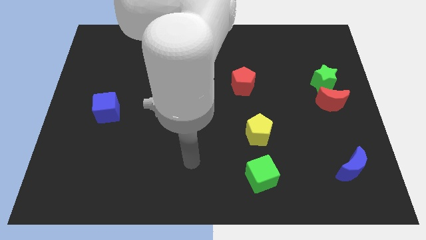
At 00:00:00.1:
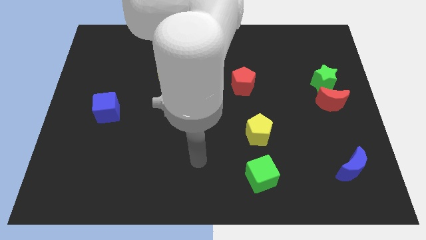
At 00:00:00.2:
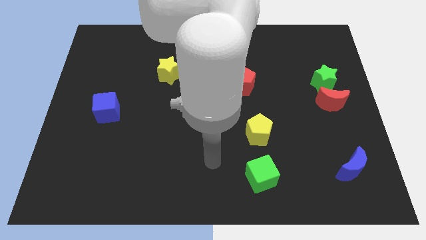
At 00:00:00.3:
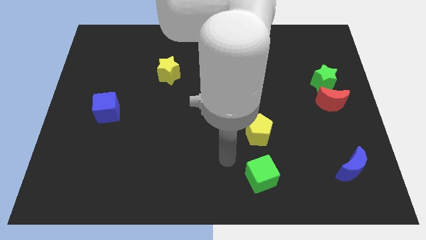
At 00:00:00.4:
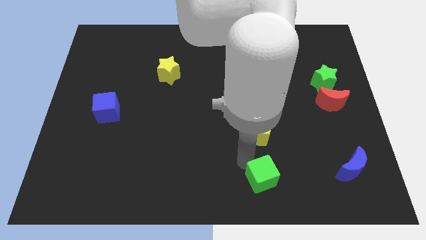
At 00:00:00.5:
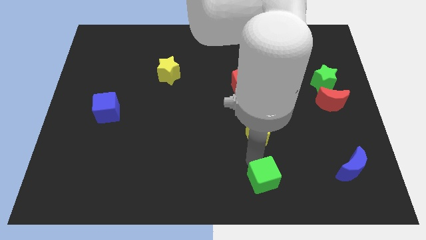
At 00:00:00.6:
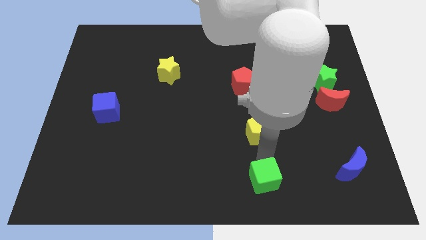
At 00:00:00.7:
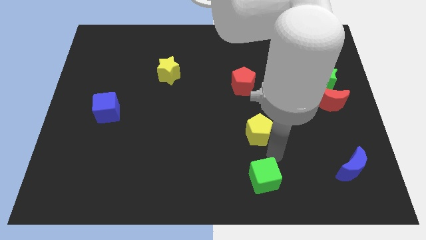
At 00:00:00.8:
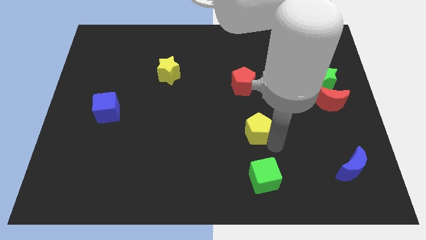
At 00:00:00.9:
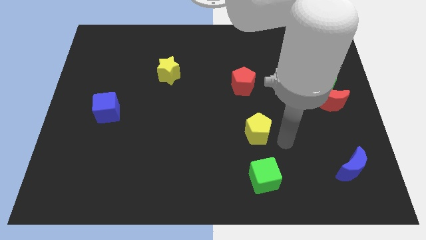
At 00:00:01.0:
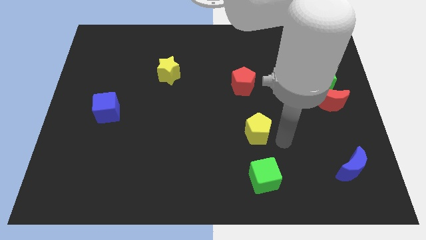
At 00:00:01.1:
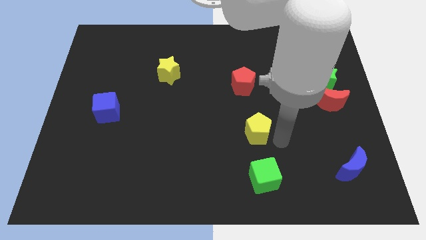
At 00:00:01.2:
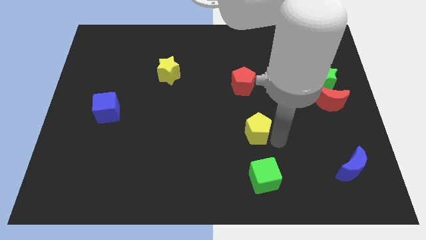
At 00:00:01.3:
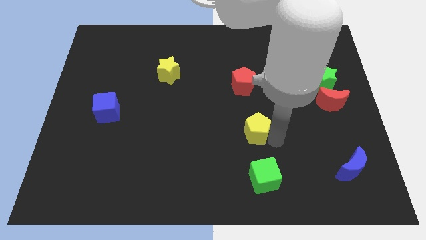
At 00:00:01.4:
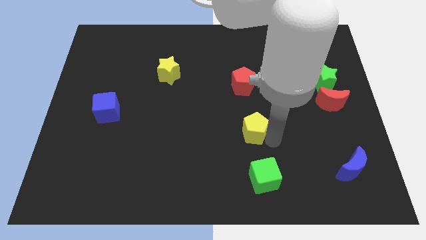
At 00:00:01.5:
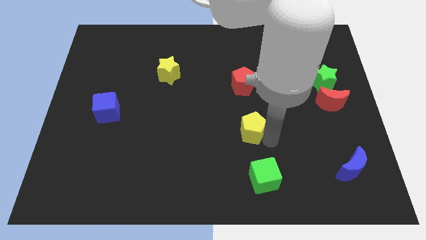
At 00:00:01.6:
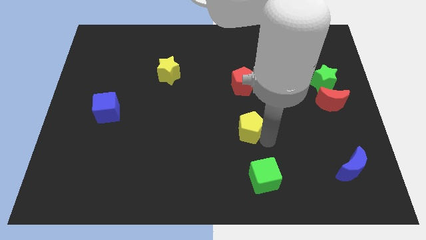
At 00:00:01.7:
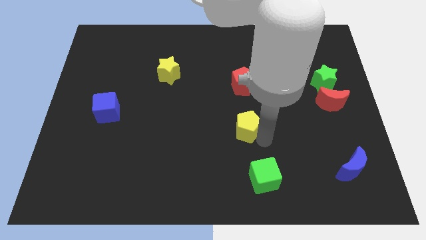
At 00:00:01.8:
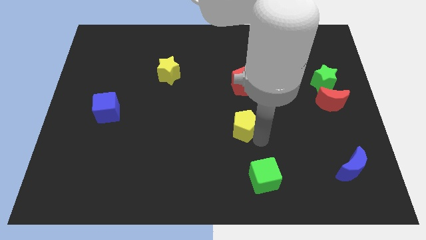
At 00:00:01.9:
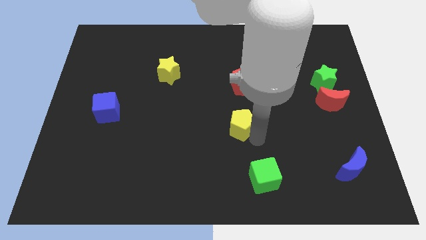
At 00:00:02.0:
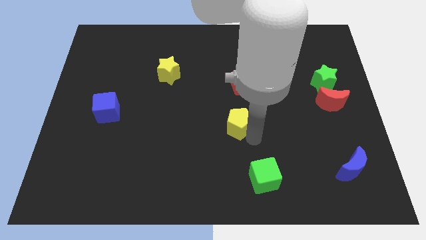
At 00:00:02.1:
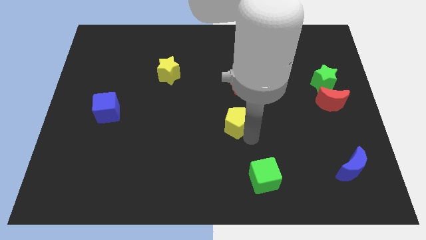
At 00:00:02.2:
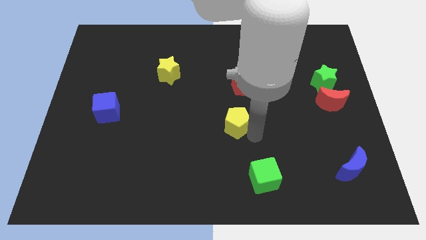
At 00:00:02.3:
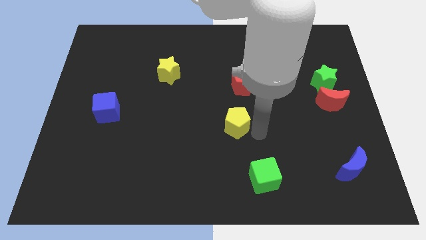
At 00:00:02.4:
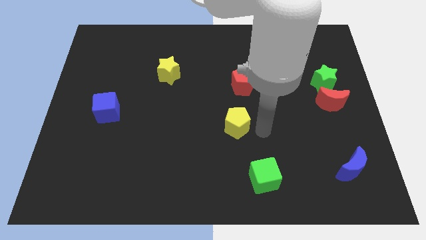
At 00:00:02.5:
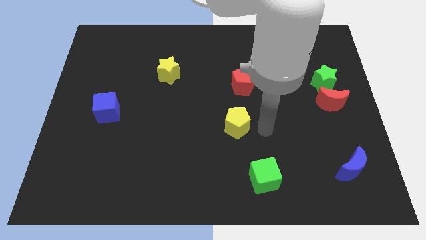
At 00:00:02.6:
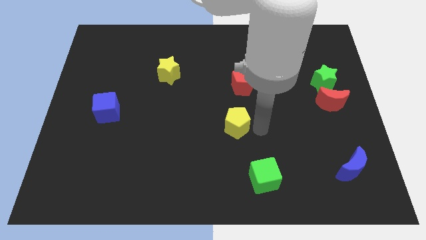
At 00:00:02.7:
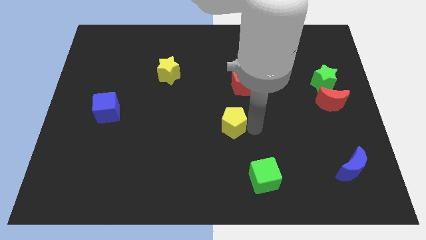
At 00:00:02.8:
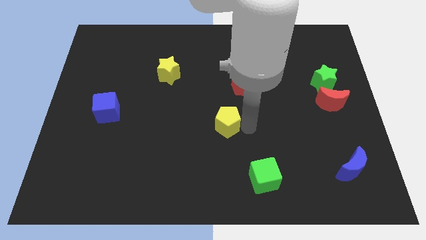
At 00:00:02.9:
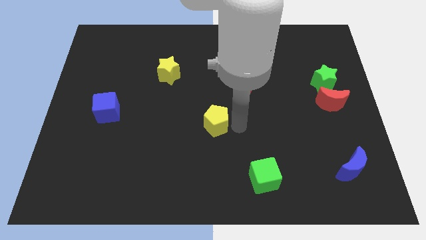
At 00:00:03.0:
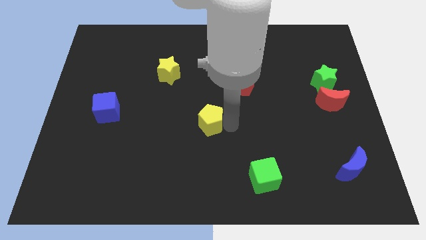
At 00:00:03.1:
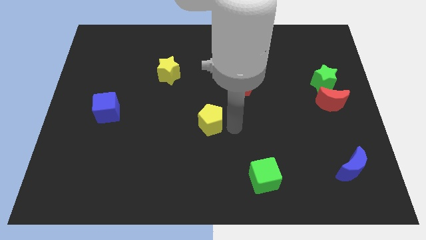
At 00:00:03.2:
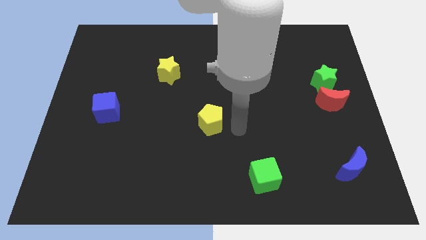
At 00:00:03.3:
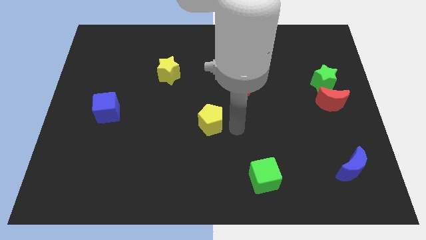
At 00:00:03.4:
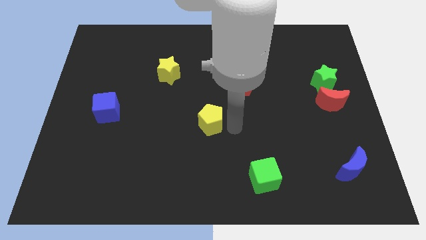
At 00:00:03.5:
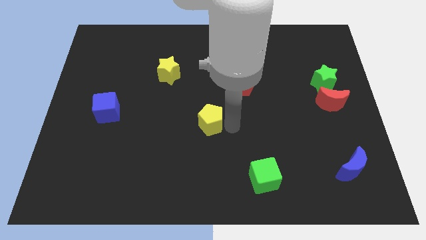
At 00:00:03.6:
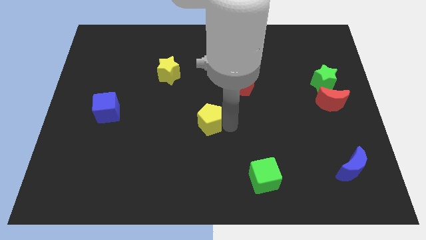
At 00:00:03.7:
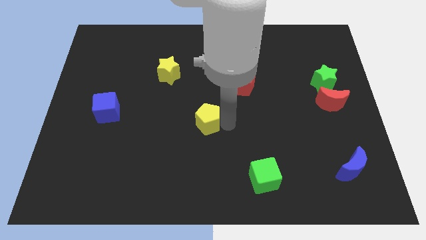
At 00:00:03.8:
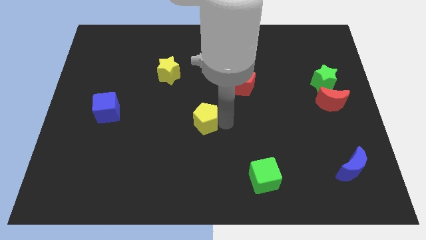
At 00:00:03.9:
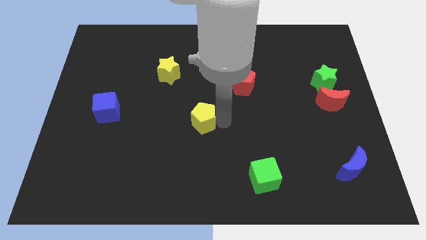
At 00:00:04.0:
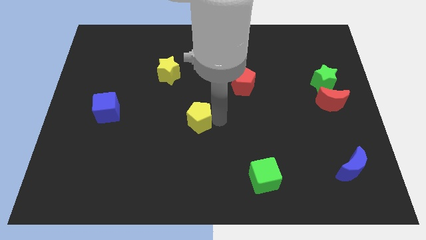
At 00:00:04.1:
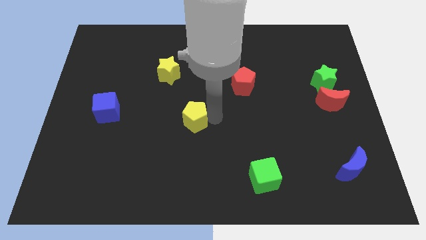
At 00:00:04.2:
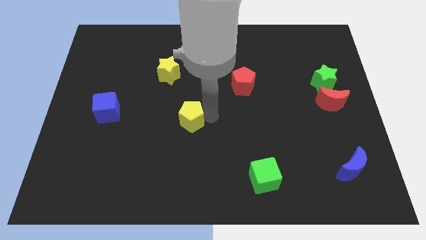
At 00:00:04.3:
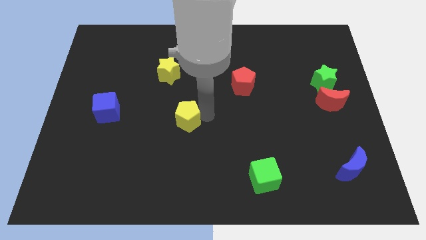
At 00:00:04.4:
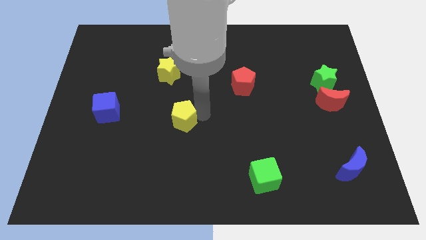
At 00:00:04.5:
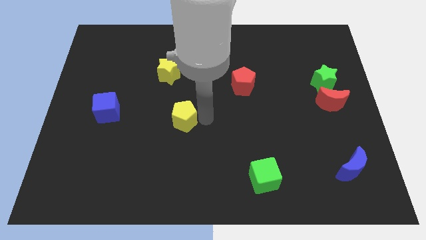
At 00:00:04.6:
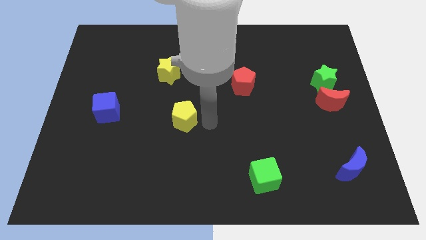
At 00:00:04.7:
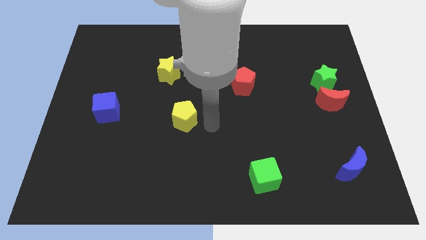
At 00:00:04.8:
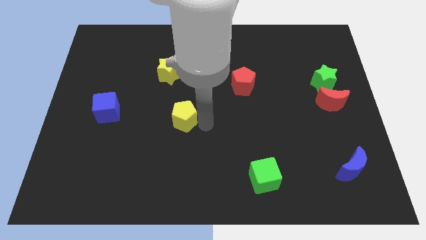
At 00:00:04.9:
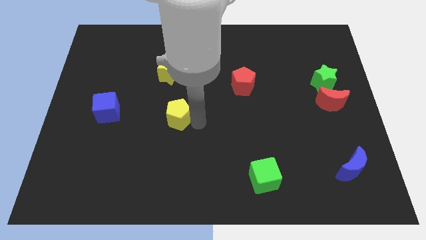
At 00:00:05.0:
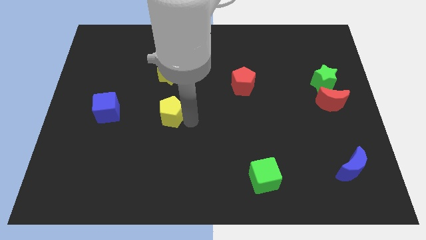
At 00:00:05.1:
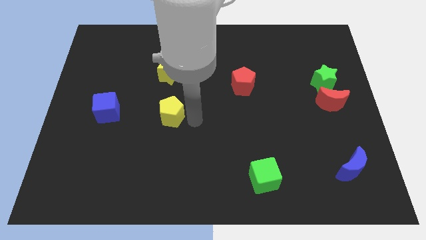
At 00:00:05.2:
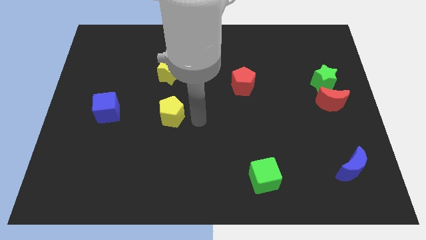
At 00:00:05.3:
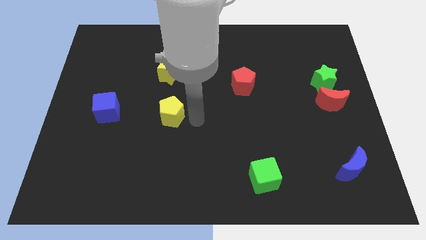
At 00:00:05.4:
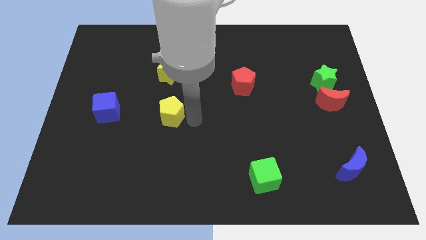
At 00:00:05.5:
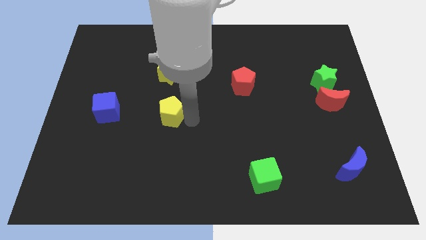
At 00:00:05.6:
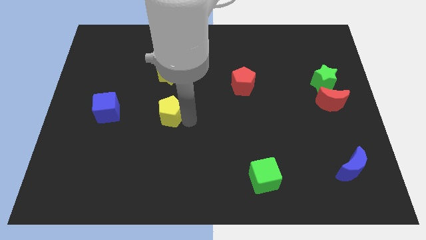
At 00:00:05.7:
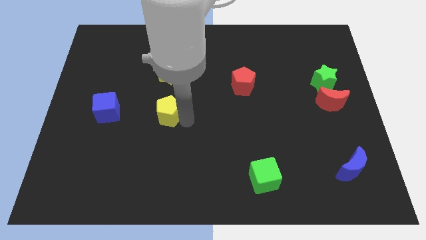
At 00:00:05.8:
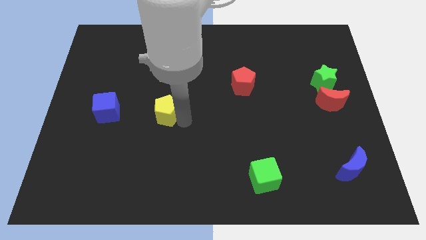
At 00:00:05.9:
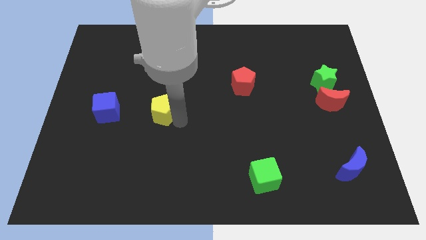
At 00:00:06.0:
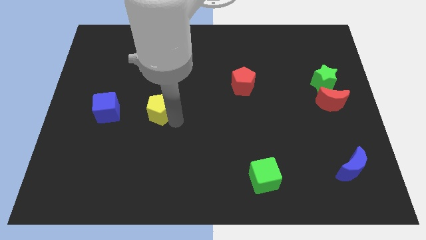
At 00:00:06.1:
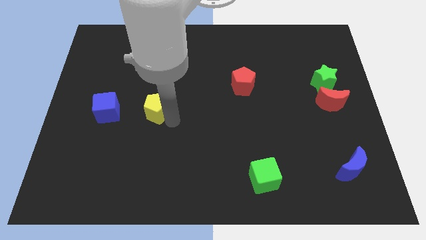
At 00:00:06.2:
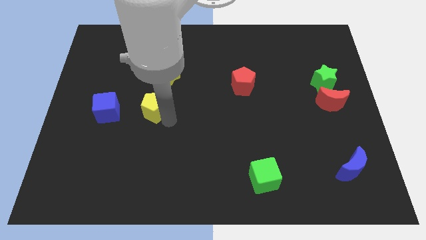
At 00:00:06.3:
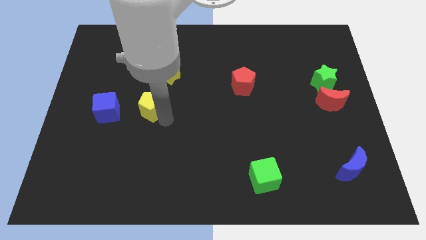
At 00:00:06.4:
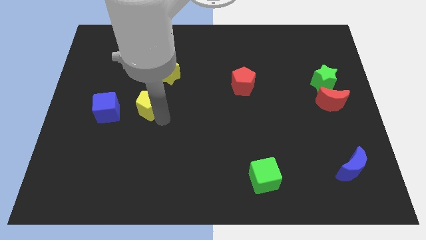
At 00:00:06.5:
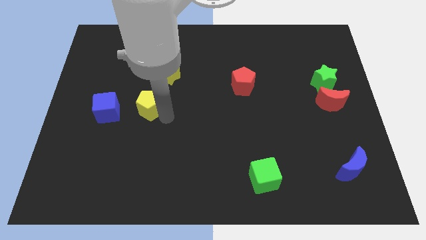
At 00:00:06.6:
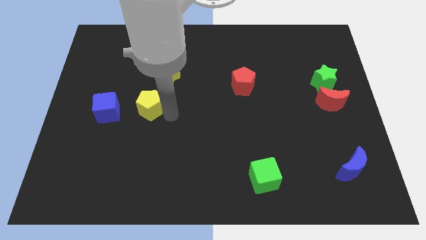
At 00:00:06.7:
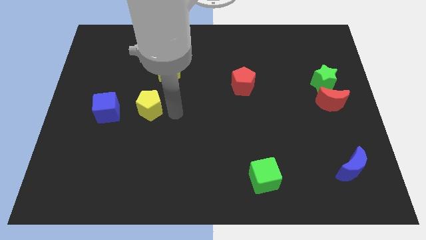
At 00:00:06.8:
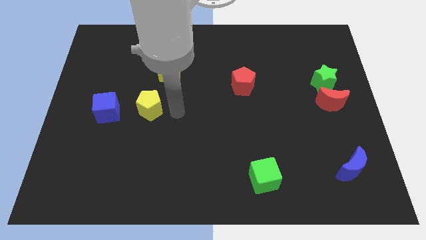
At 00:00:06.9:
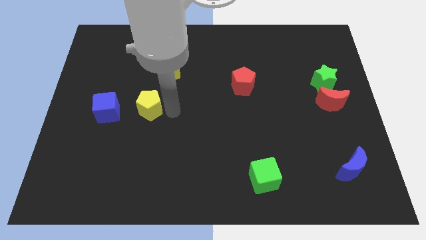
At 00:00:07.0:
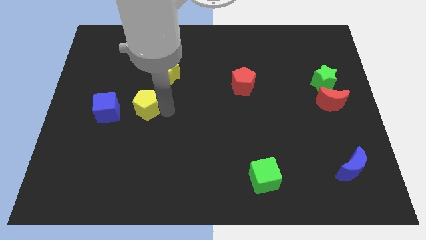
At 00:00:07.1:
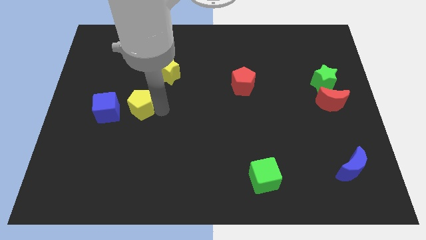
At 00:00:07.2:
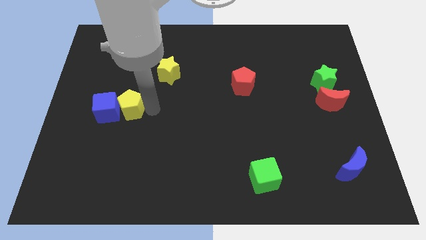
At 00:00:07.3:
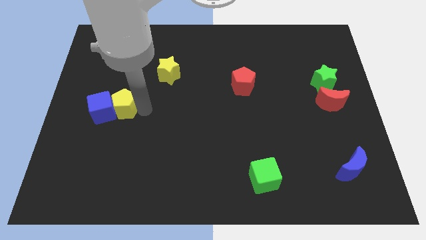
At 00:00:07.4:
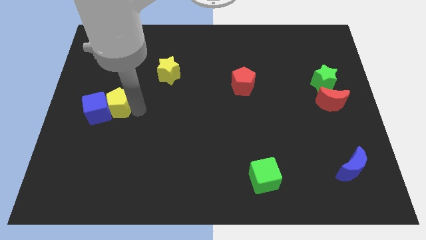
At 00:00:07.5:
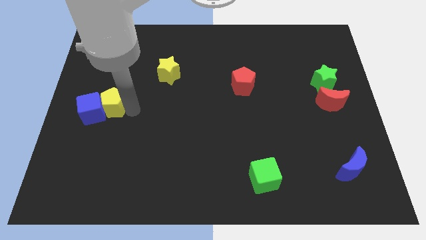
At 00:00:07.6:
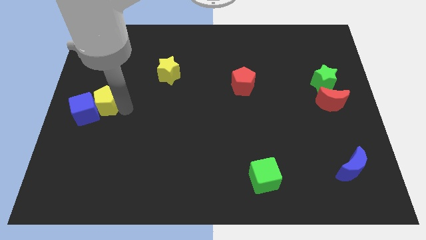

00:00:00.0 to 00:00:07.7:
slide the yellow pentagon to the left side of the board
